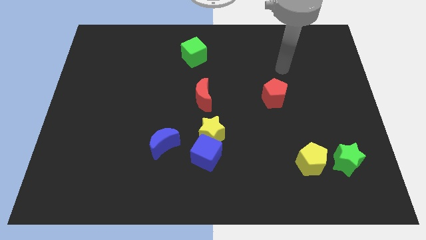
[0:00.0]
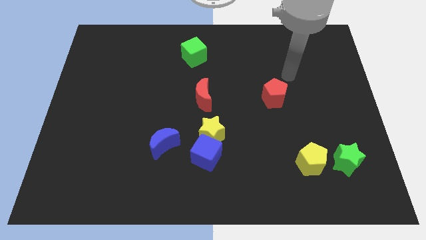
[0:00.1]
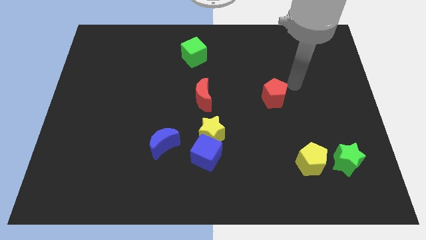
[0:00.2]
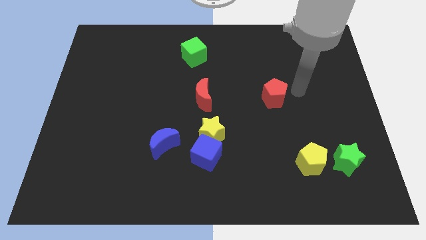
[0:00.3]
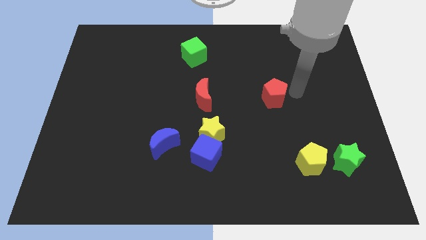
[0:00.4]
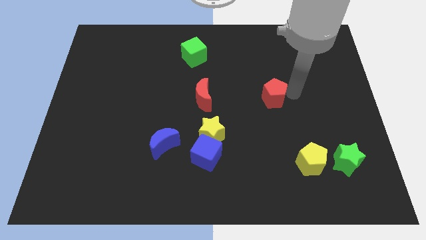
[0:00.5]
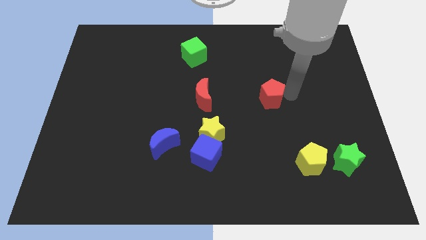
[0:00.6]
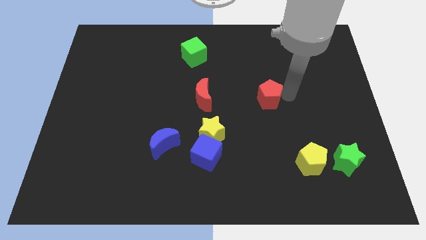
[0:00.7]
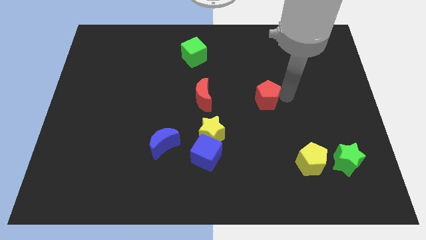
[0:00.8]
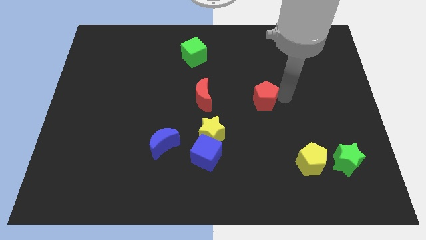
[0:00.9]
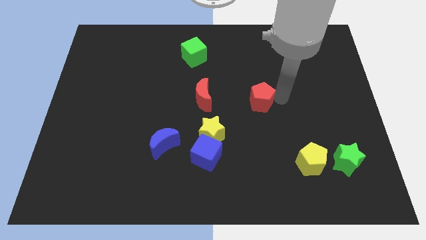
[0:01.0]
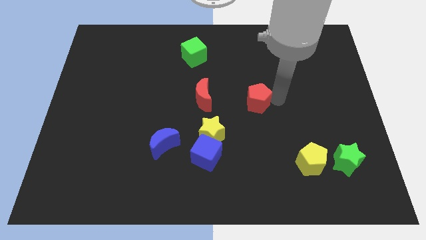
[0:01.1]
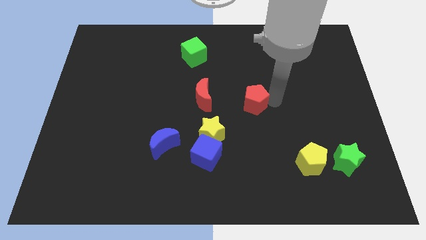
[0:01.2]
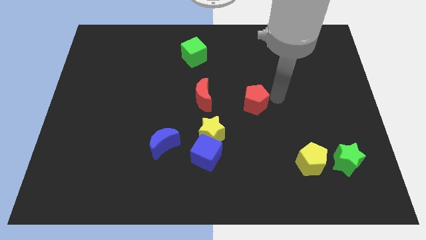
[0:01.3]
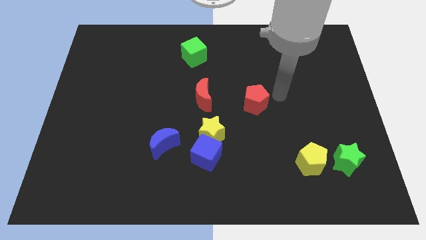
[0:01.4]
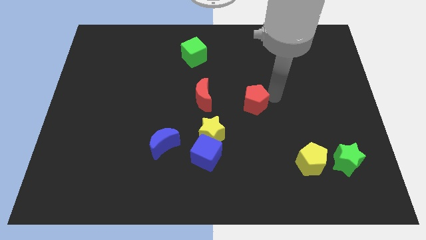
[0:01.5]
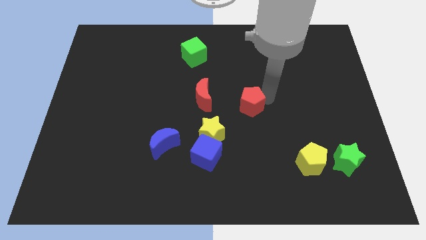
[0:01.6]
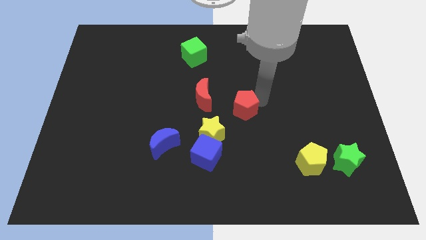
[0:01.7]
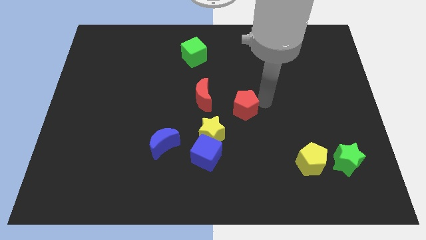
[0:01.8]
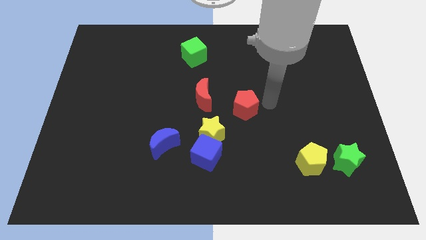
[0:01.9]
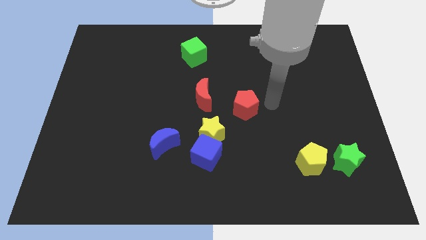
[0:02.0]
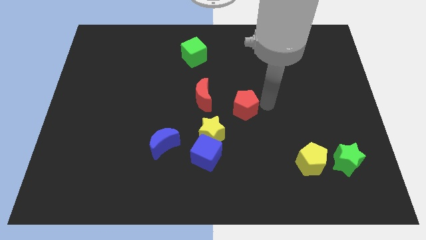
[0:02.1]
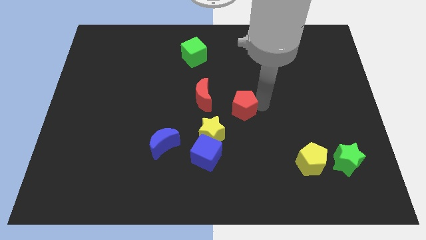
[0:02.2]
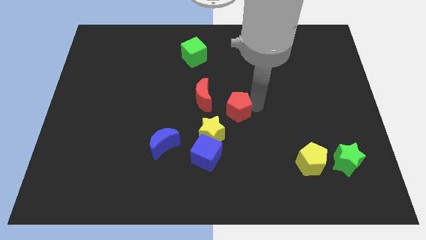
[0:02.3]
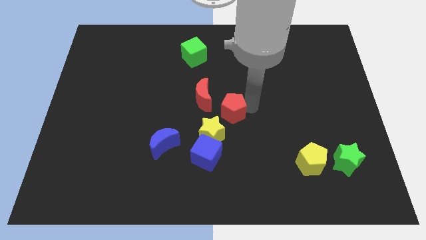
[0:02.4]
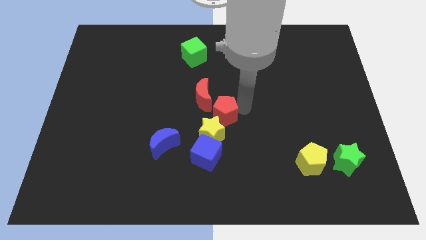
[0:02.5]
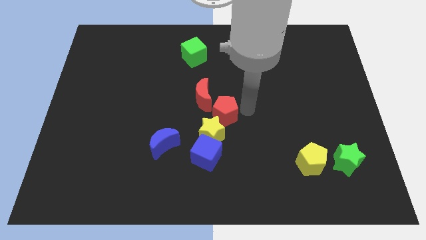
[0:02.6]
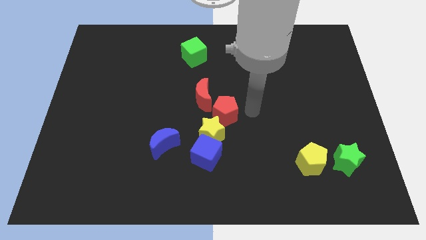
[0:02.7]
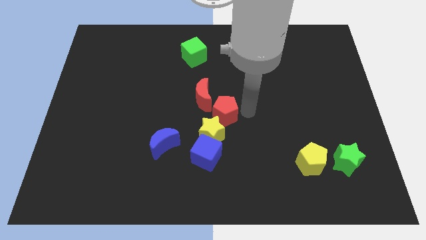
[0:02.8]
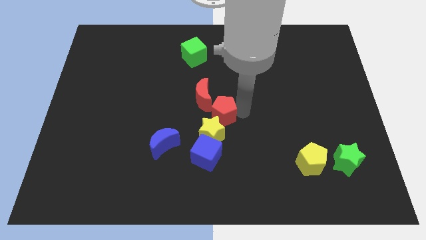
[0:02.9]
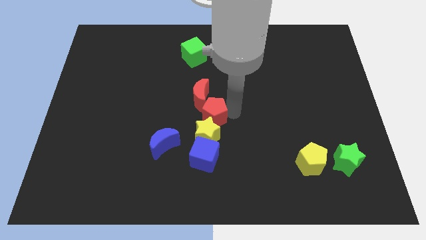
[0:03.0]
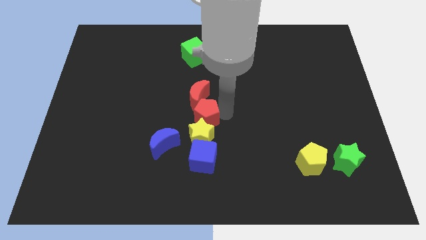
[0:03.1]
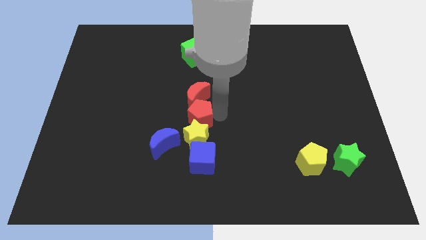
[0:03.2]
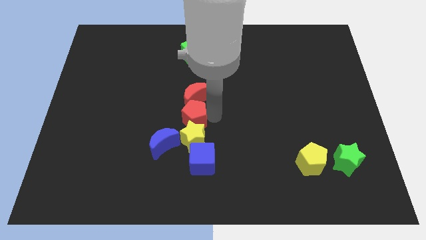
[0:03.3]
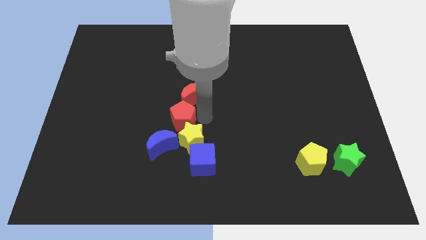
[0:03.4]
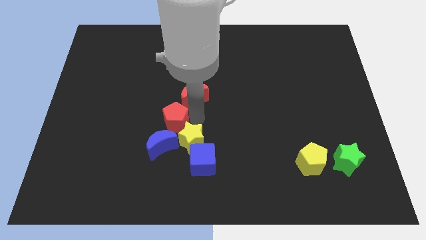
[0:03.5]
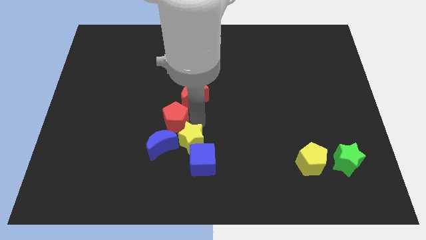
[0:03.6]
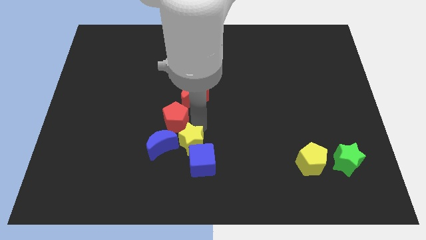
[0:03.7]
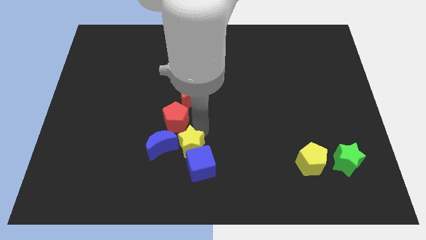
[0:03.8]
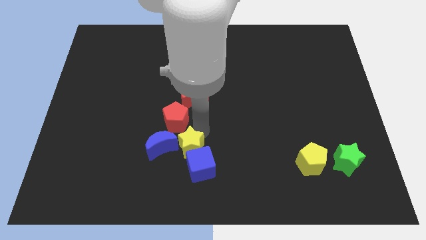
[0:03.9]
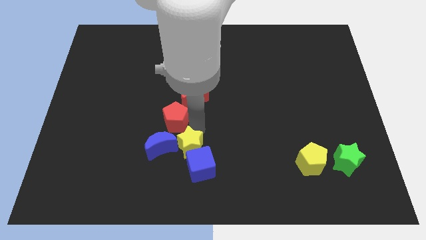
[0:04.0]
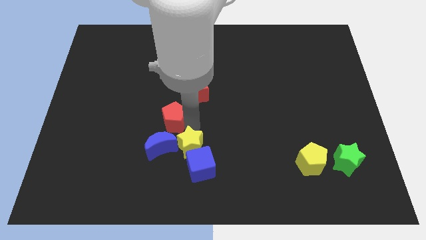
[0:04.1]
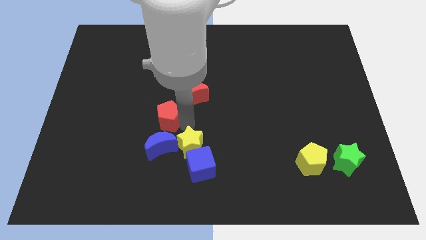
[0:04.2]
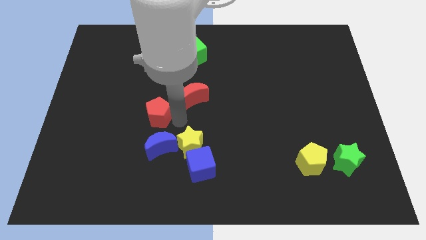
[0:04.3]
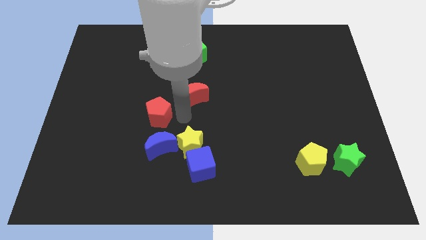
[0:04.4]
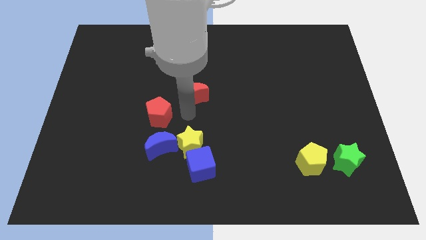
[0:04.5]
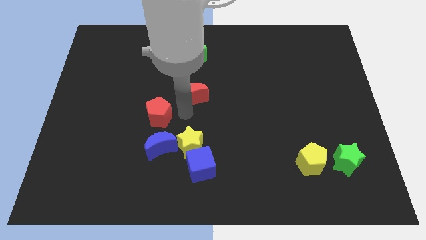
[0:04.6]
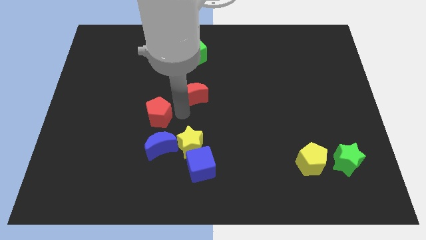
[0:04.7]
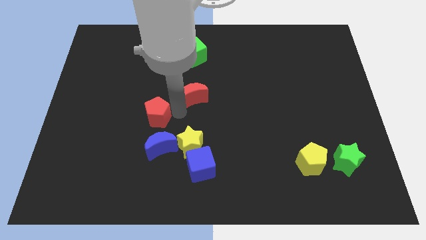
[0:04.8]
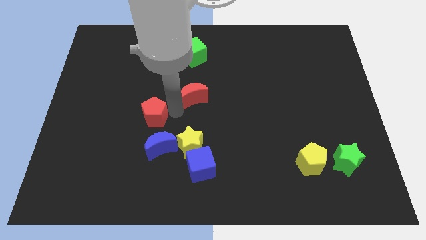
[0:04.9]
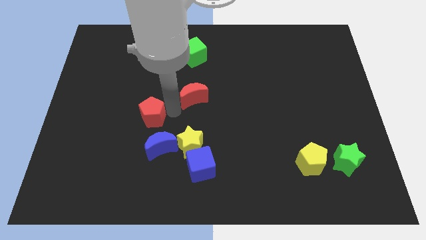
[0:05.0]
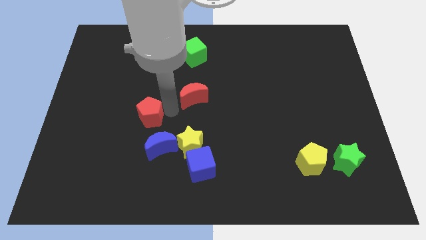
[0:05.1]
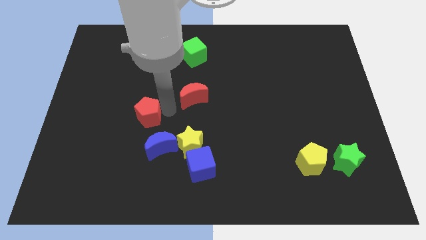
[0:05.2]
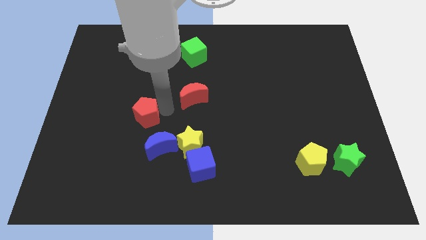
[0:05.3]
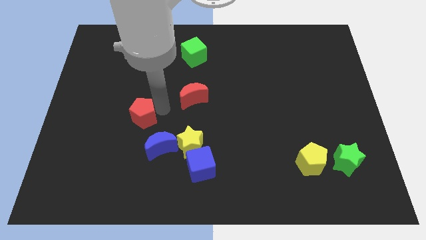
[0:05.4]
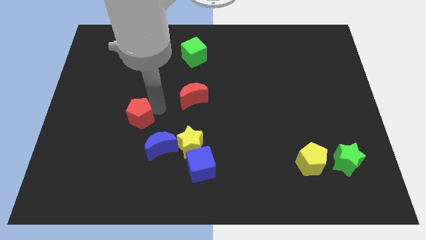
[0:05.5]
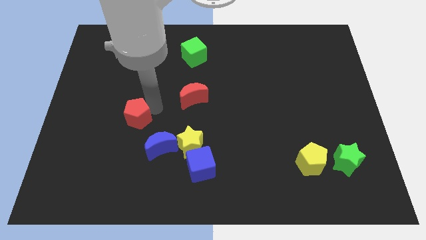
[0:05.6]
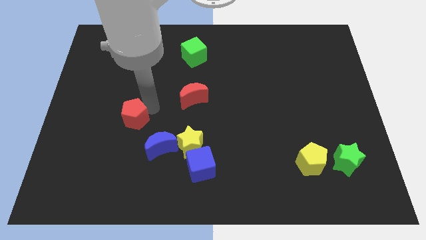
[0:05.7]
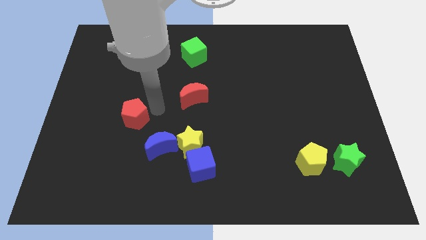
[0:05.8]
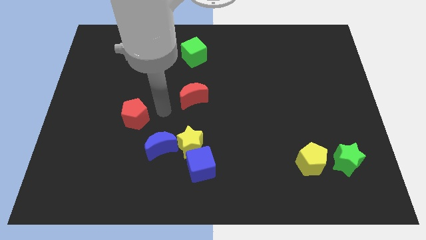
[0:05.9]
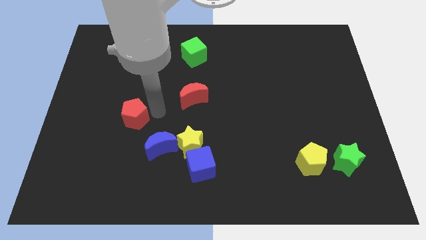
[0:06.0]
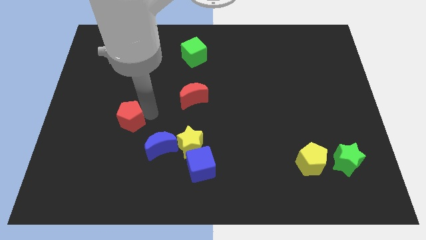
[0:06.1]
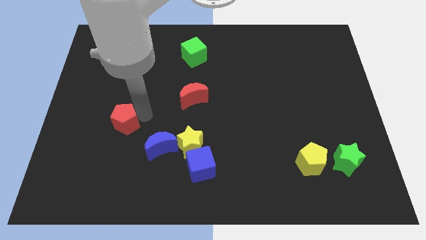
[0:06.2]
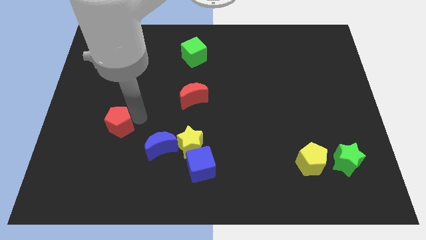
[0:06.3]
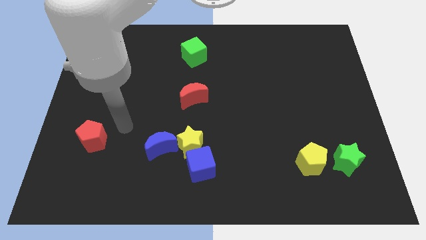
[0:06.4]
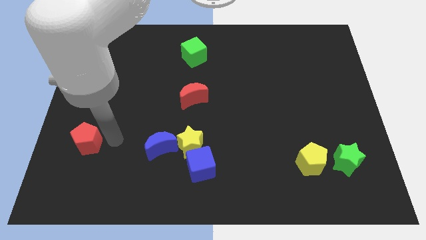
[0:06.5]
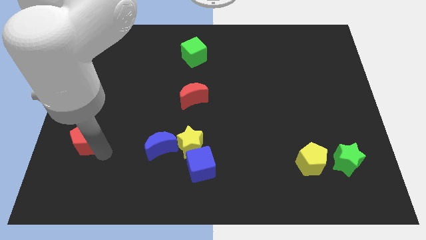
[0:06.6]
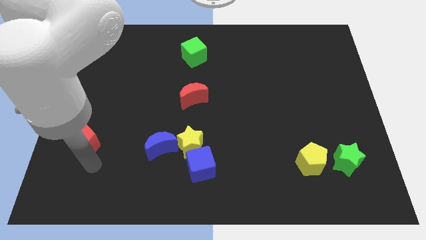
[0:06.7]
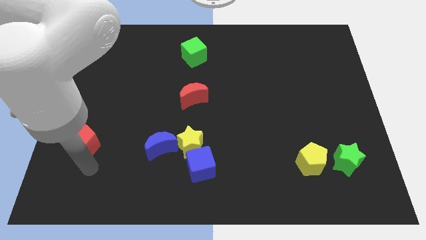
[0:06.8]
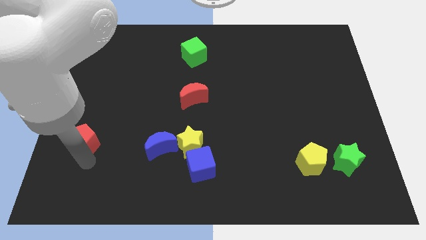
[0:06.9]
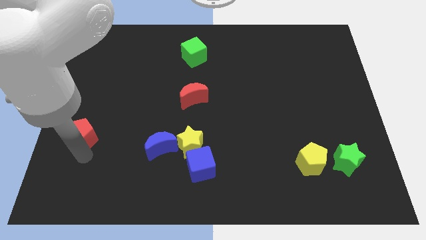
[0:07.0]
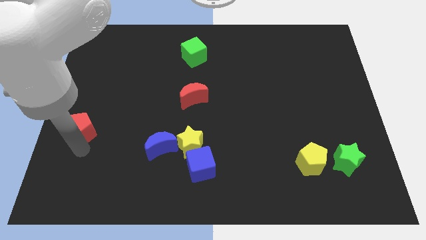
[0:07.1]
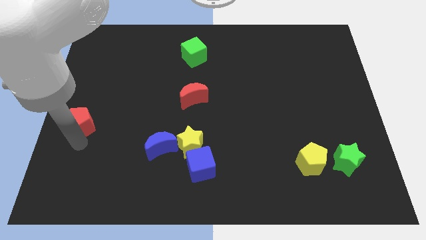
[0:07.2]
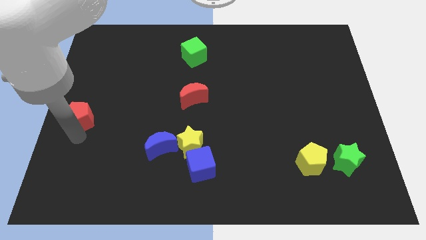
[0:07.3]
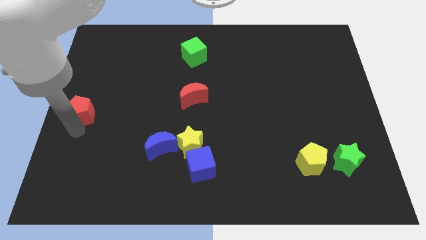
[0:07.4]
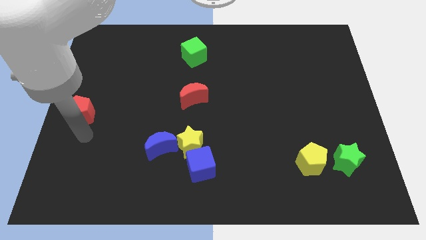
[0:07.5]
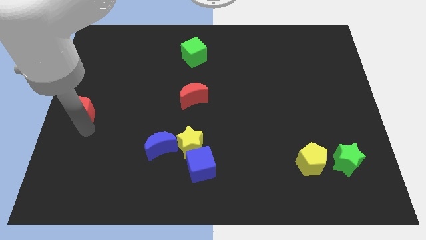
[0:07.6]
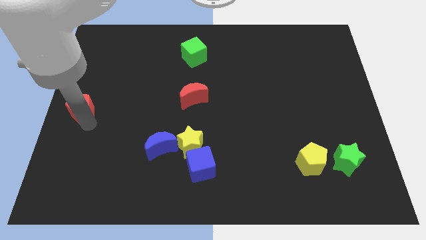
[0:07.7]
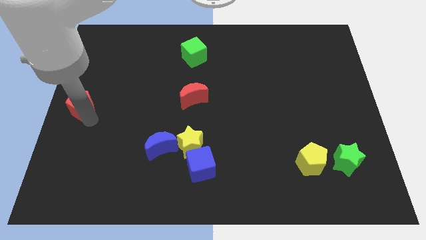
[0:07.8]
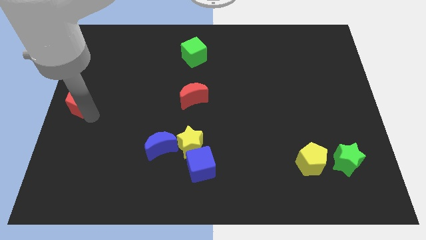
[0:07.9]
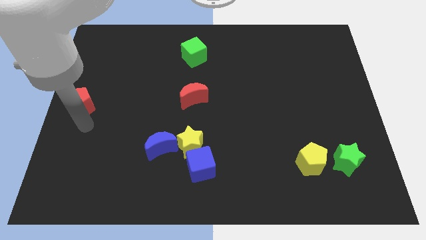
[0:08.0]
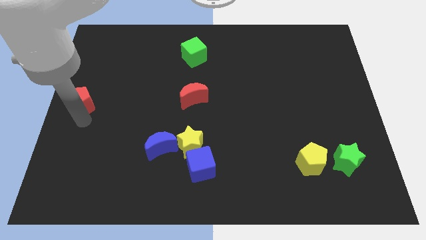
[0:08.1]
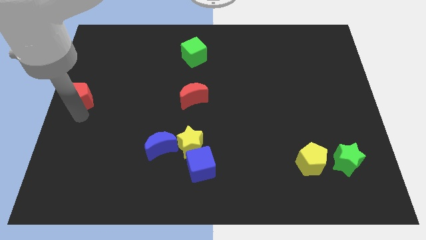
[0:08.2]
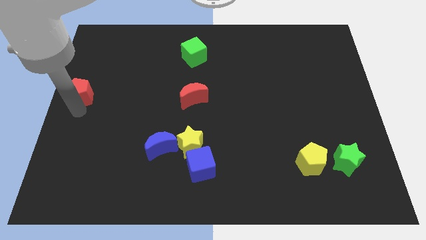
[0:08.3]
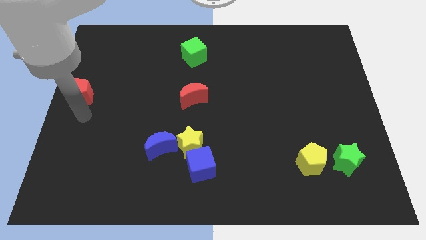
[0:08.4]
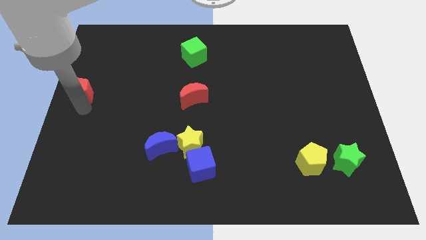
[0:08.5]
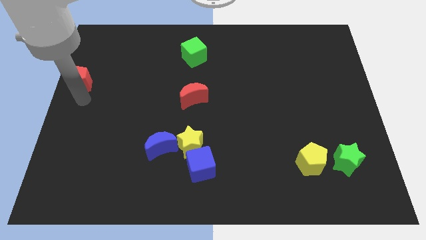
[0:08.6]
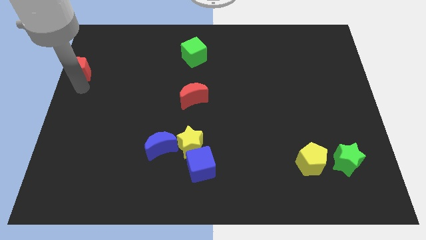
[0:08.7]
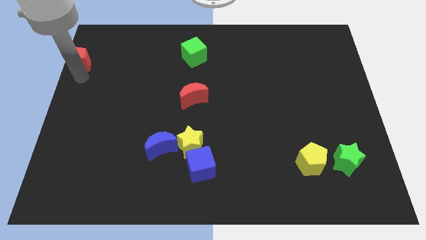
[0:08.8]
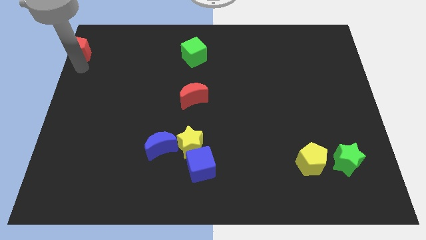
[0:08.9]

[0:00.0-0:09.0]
slide the red pentagon to the top left of the board
